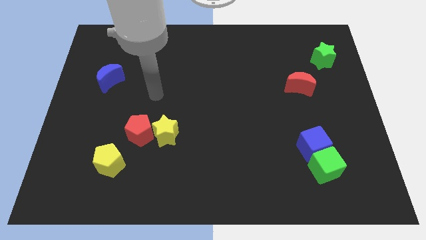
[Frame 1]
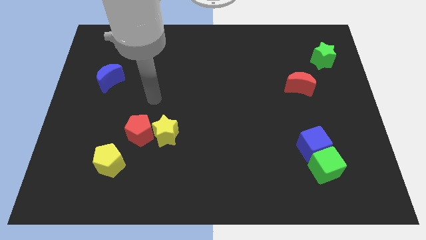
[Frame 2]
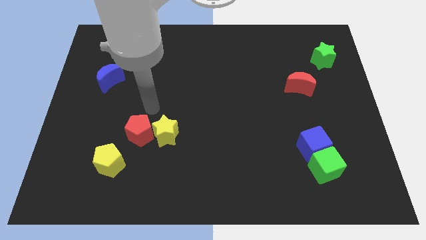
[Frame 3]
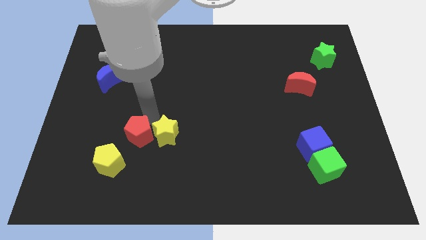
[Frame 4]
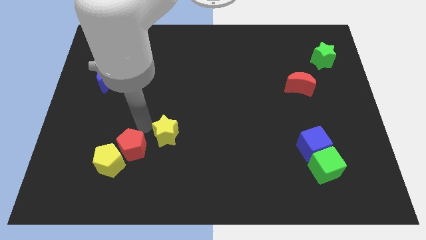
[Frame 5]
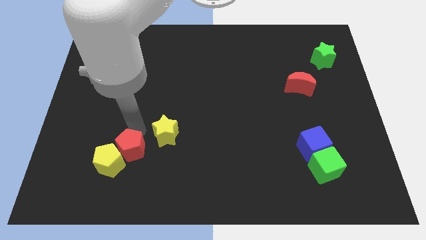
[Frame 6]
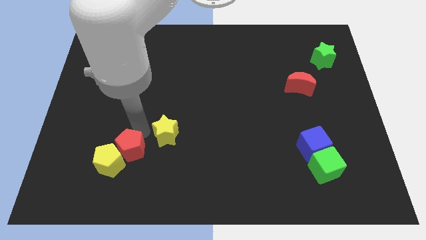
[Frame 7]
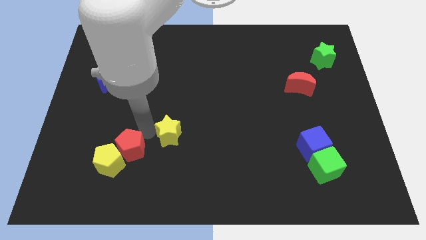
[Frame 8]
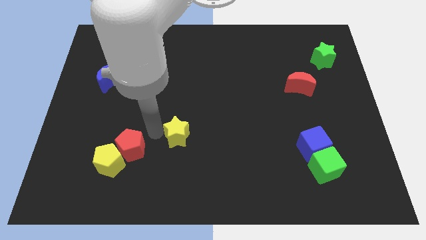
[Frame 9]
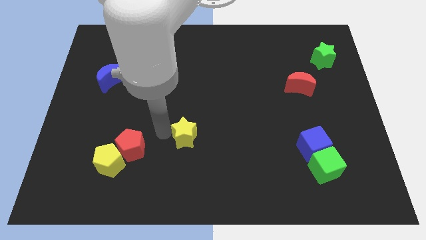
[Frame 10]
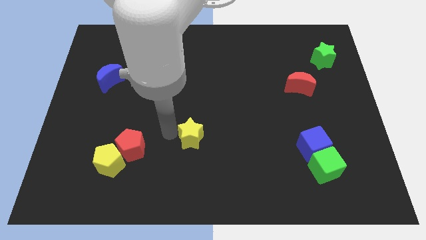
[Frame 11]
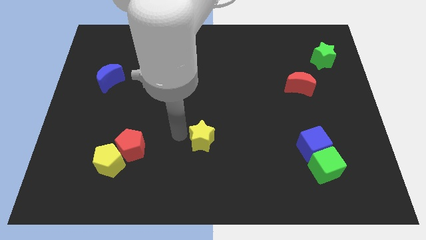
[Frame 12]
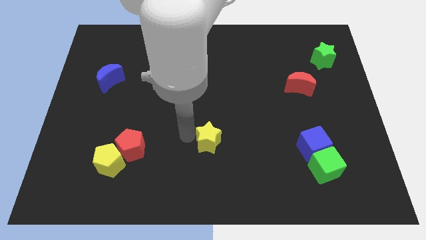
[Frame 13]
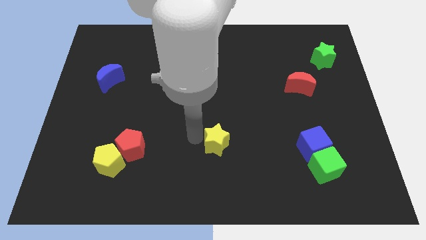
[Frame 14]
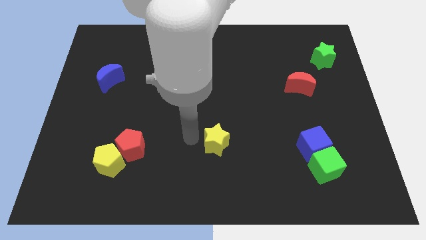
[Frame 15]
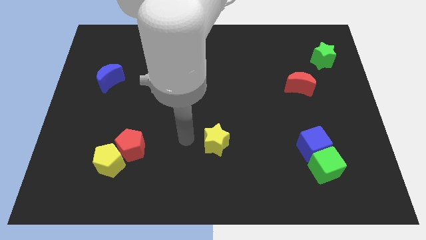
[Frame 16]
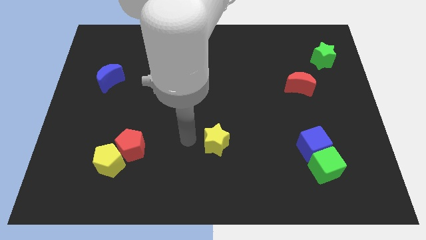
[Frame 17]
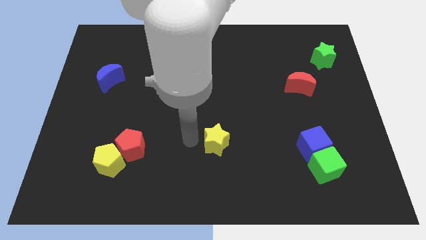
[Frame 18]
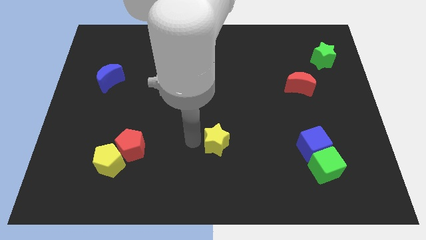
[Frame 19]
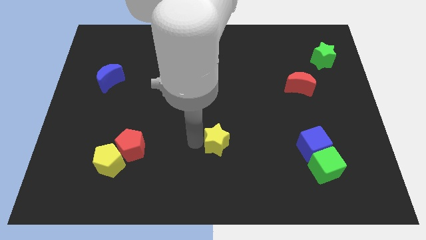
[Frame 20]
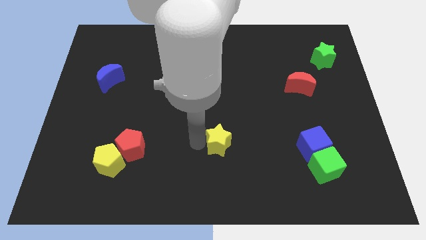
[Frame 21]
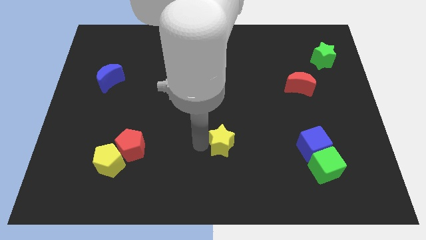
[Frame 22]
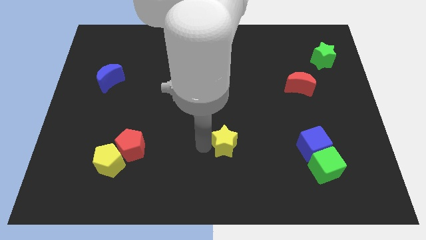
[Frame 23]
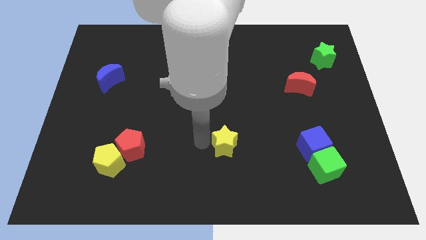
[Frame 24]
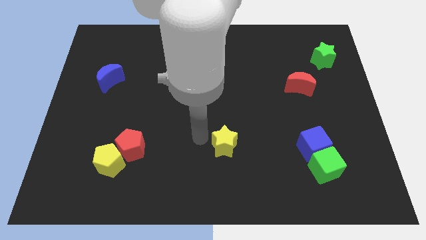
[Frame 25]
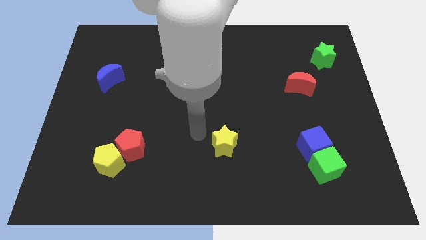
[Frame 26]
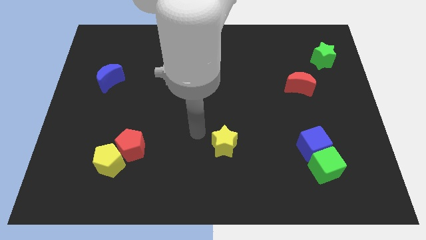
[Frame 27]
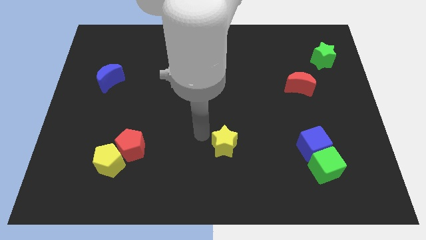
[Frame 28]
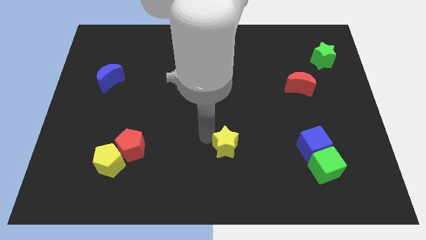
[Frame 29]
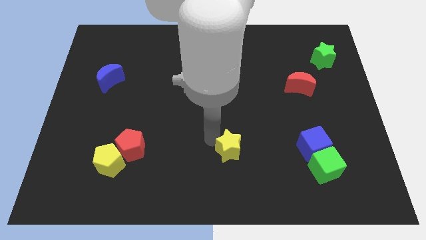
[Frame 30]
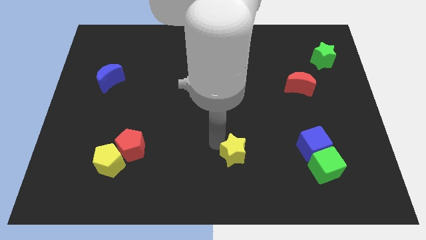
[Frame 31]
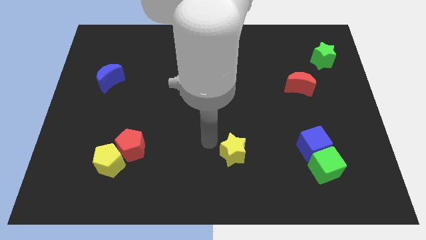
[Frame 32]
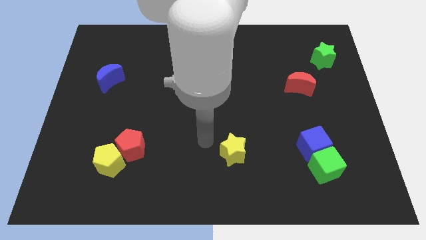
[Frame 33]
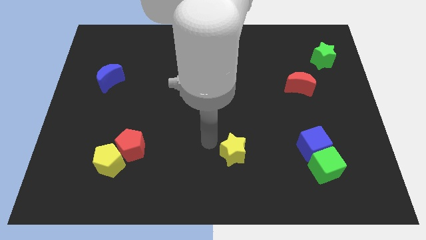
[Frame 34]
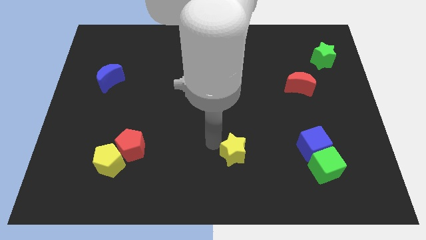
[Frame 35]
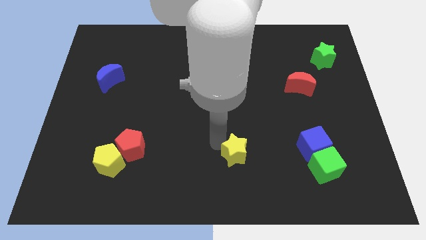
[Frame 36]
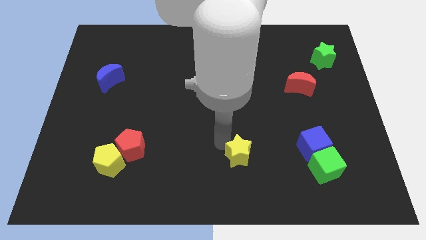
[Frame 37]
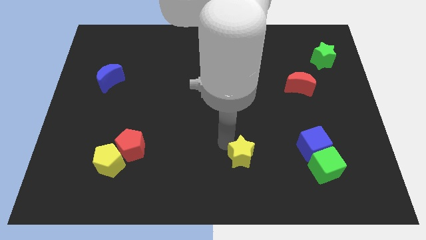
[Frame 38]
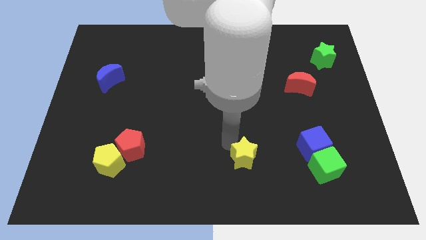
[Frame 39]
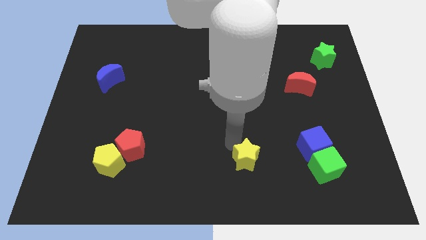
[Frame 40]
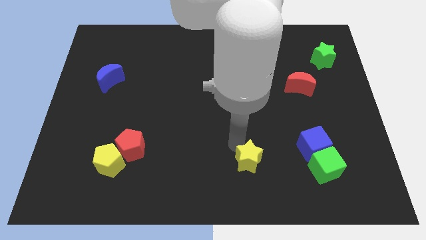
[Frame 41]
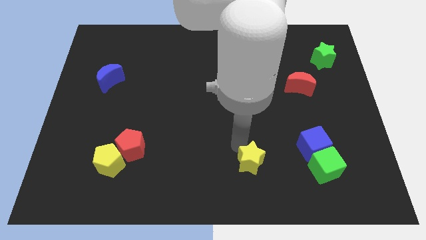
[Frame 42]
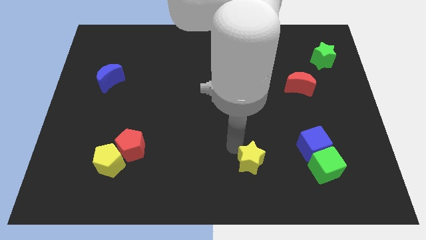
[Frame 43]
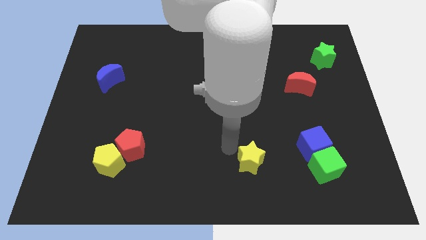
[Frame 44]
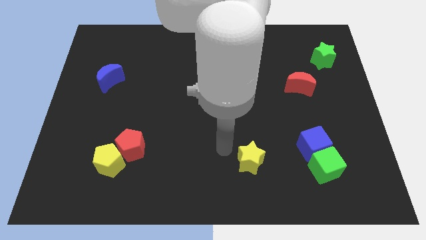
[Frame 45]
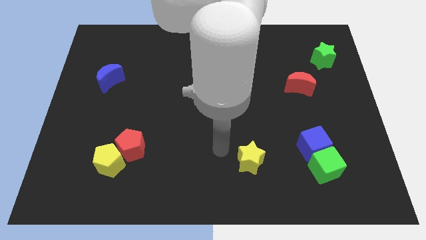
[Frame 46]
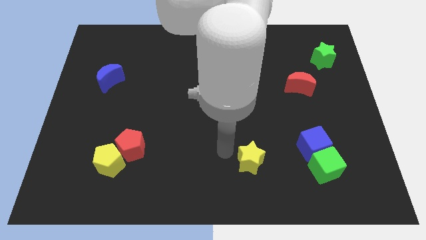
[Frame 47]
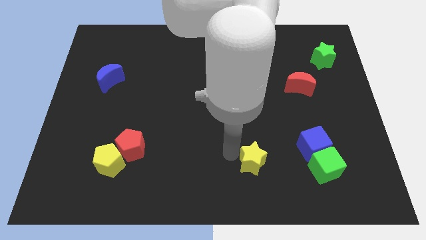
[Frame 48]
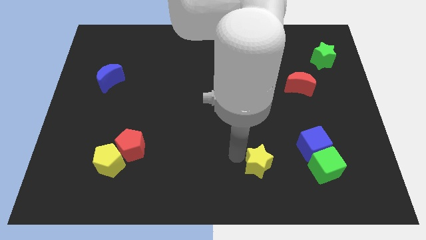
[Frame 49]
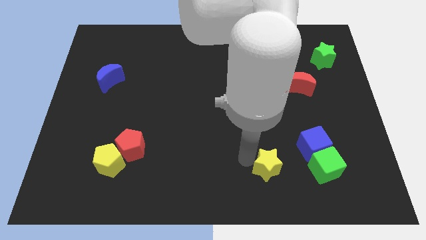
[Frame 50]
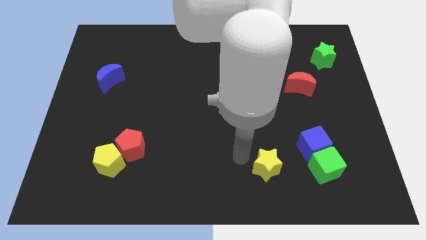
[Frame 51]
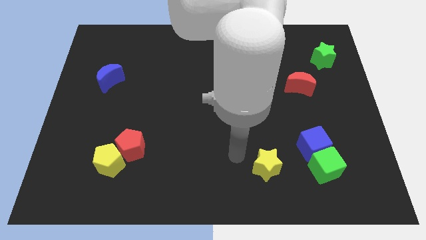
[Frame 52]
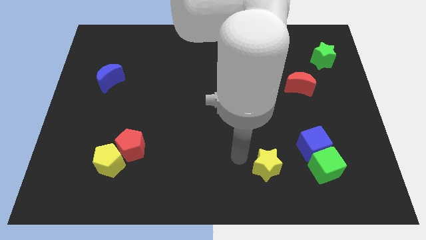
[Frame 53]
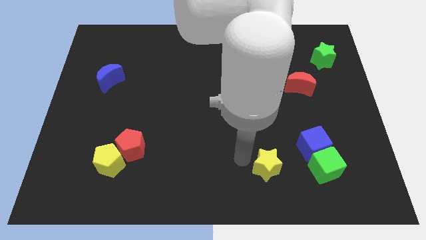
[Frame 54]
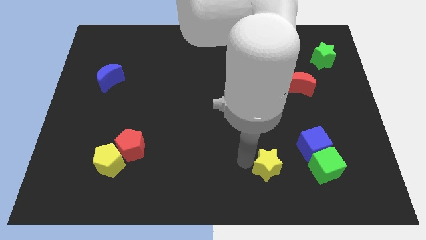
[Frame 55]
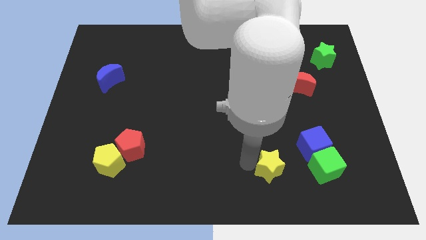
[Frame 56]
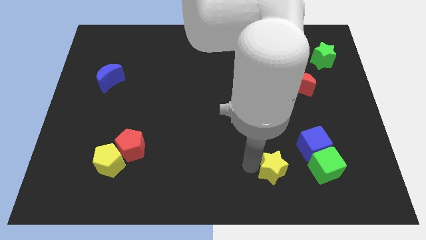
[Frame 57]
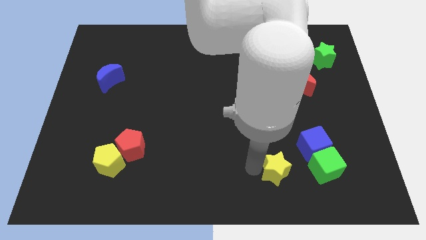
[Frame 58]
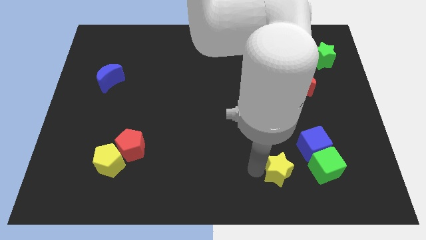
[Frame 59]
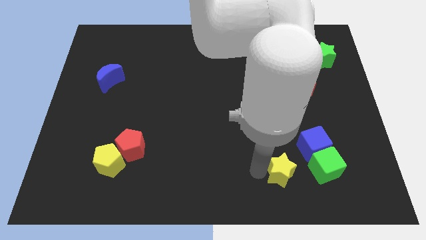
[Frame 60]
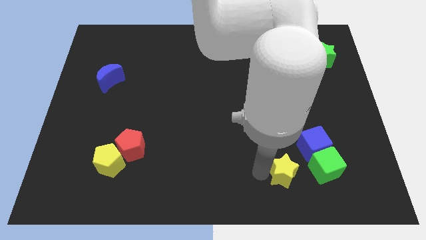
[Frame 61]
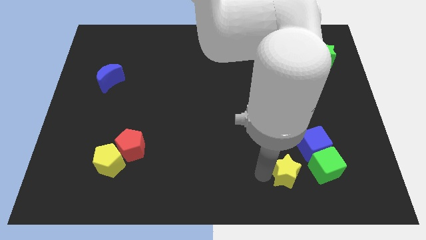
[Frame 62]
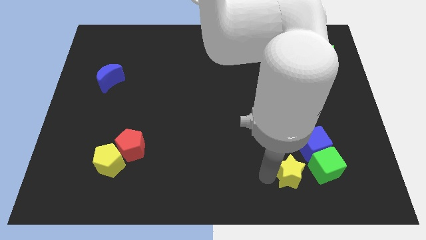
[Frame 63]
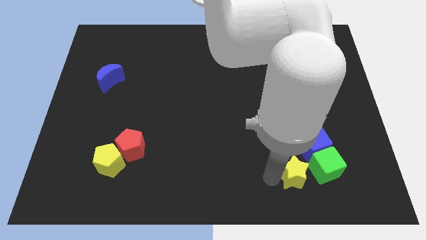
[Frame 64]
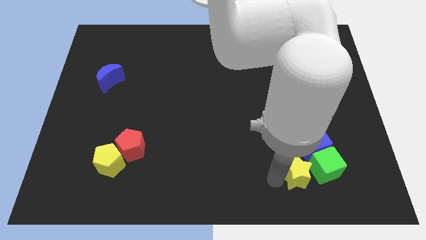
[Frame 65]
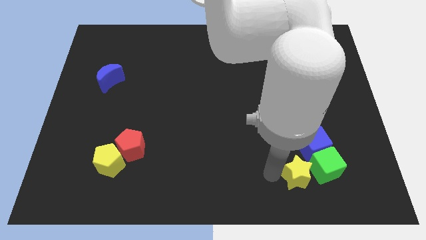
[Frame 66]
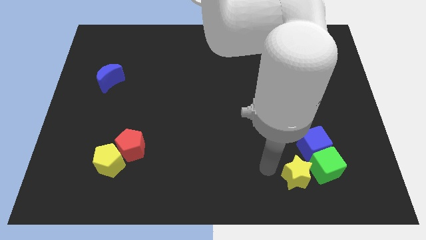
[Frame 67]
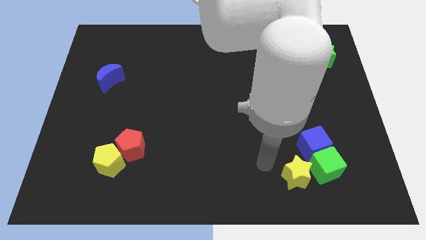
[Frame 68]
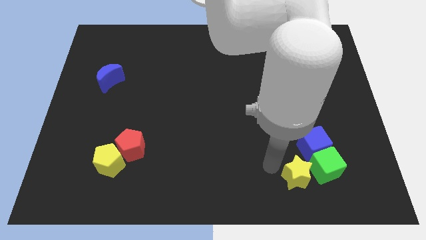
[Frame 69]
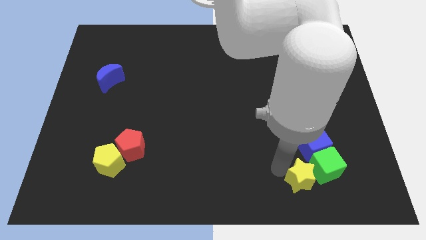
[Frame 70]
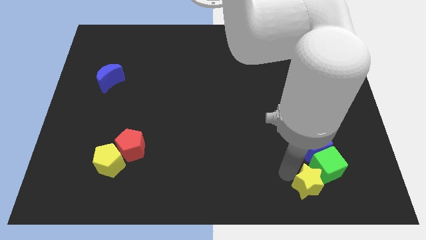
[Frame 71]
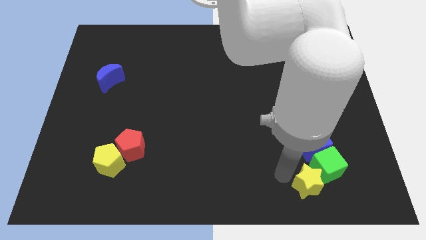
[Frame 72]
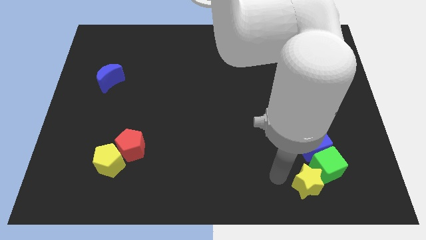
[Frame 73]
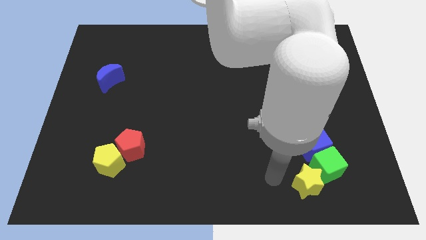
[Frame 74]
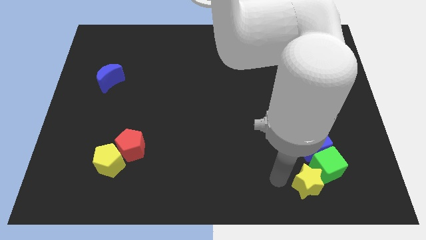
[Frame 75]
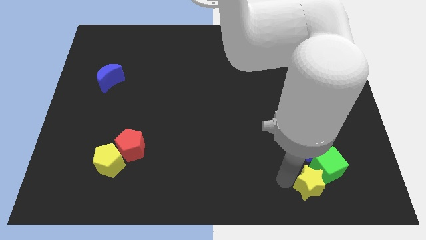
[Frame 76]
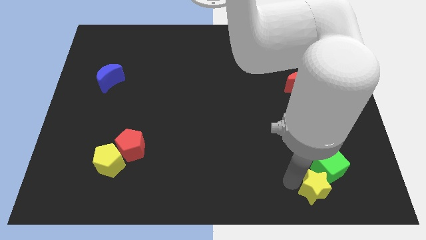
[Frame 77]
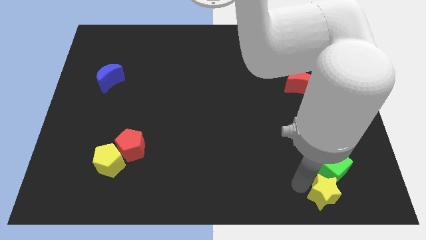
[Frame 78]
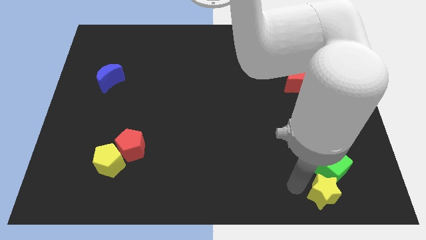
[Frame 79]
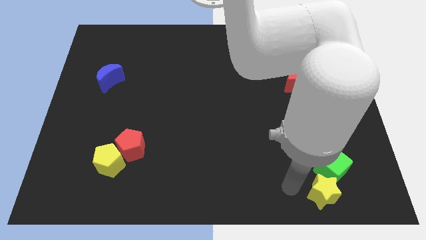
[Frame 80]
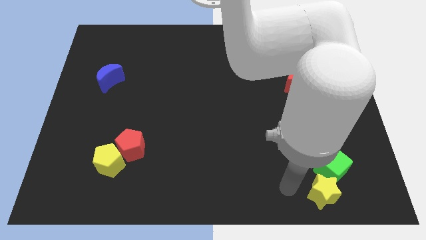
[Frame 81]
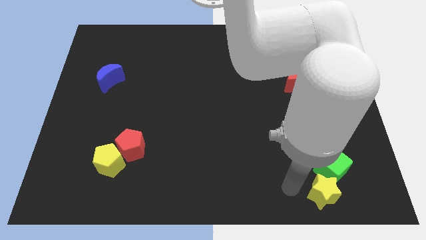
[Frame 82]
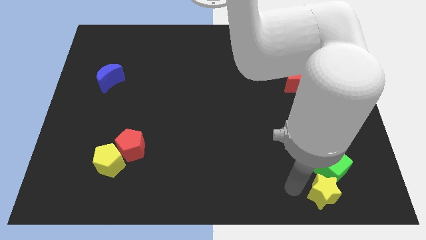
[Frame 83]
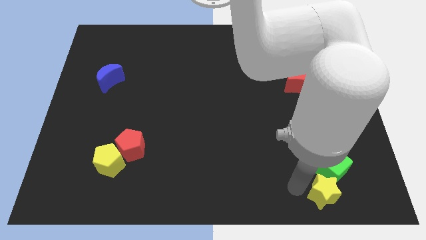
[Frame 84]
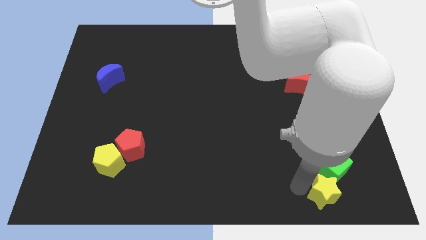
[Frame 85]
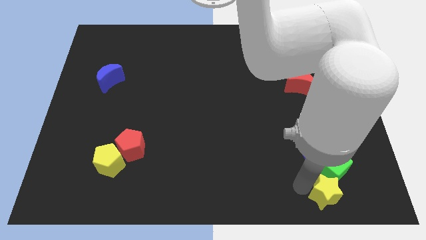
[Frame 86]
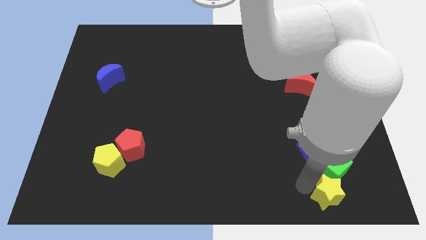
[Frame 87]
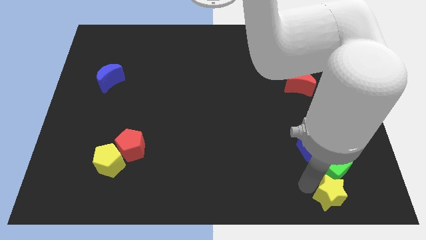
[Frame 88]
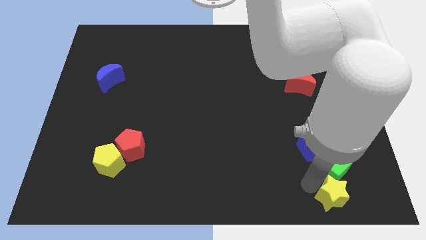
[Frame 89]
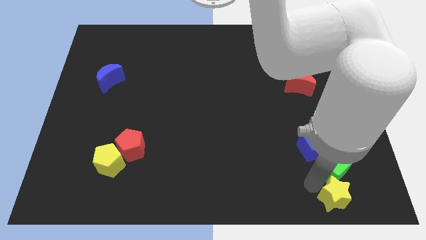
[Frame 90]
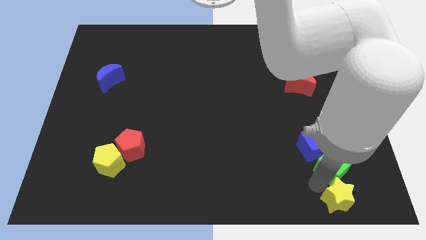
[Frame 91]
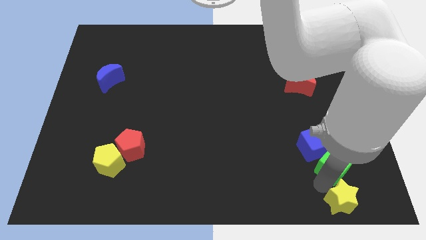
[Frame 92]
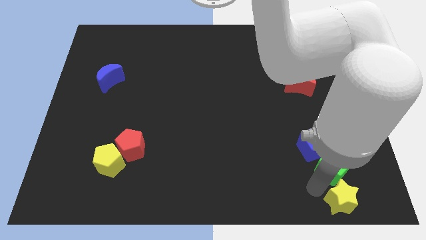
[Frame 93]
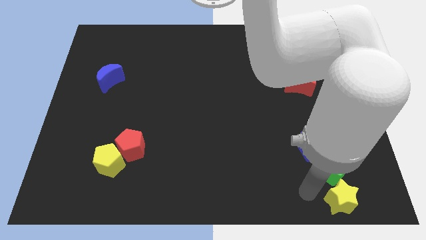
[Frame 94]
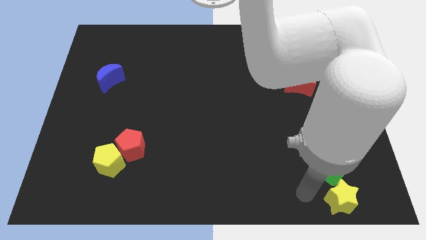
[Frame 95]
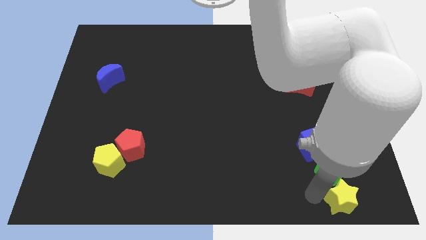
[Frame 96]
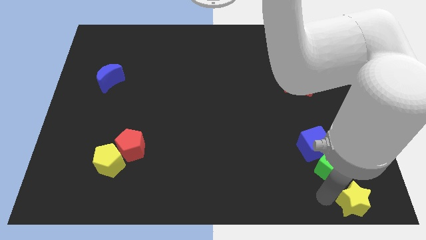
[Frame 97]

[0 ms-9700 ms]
put the yellow star to the bottom right of the board
